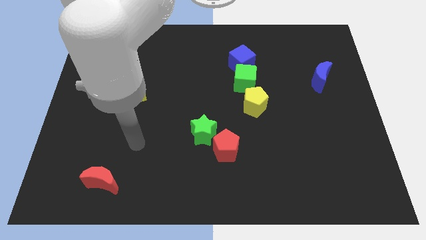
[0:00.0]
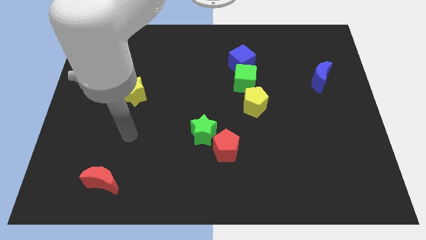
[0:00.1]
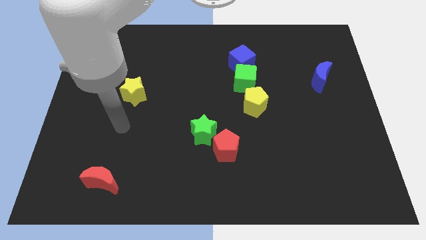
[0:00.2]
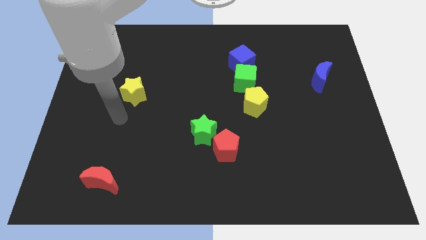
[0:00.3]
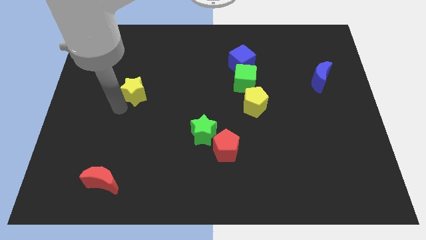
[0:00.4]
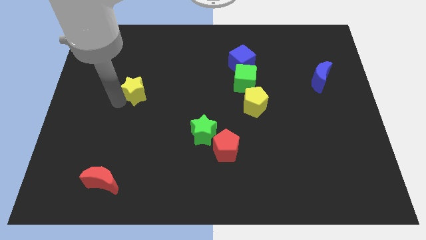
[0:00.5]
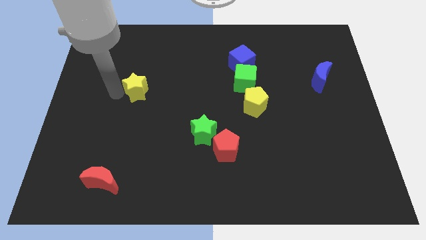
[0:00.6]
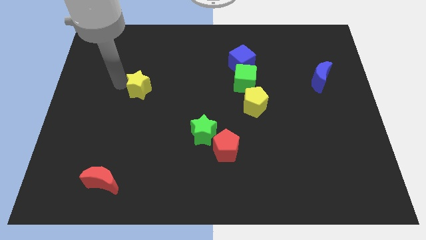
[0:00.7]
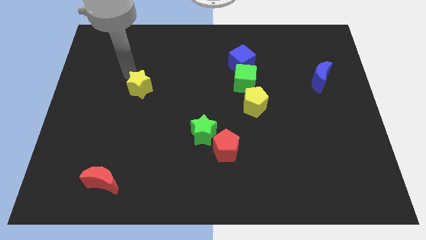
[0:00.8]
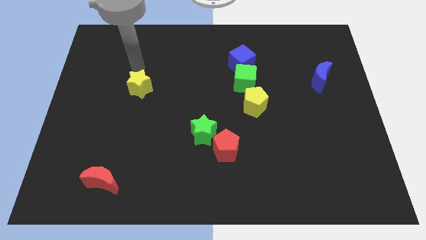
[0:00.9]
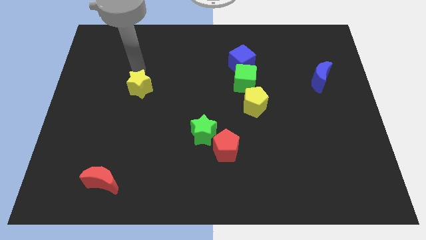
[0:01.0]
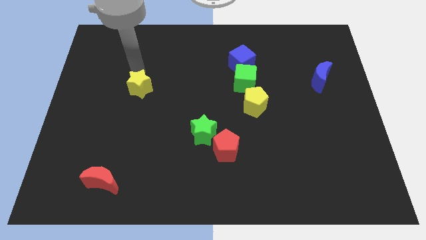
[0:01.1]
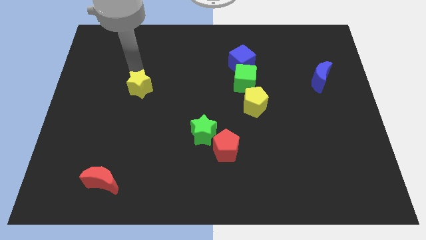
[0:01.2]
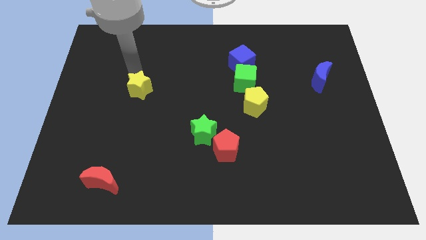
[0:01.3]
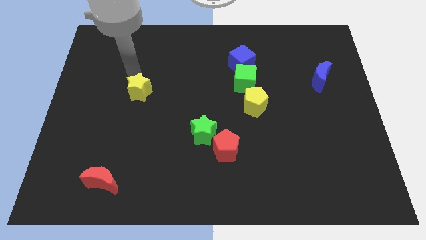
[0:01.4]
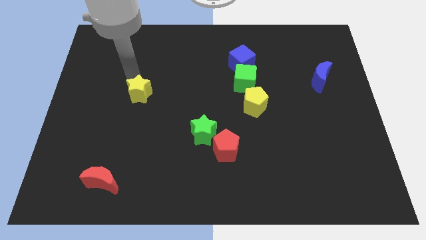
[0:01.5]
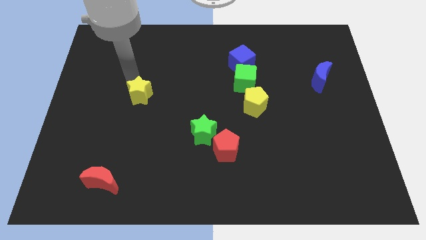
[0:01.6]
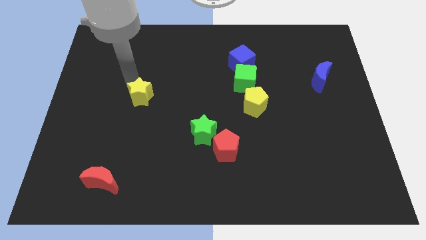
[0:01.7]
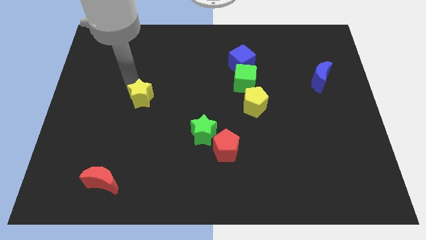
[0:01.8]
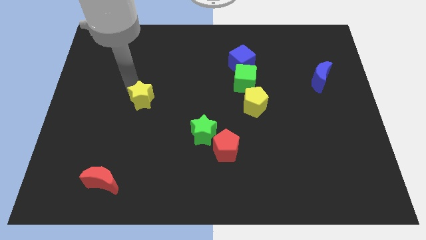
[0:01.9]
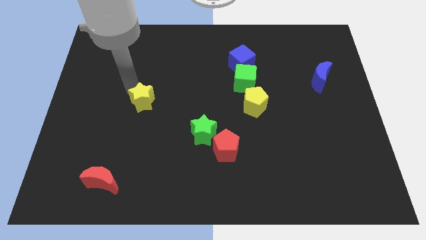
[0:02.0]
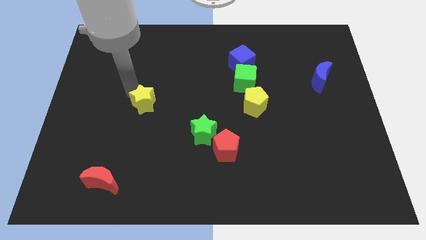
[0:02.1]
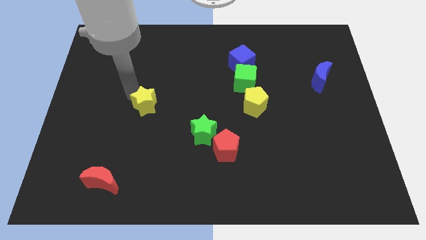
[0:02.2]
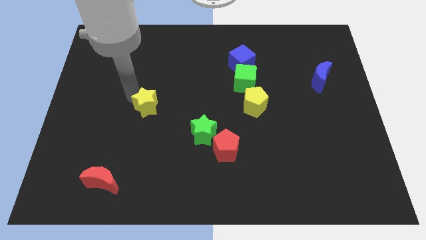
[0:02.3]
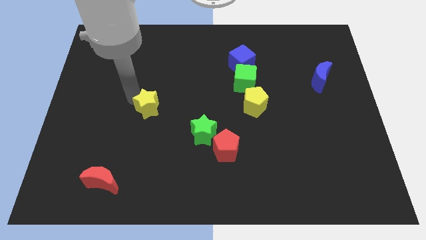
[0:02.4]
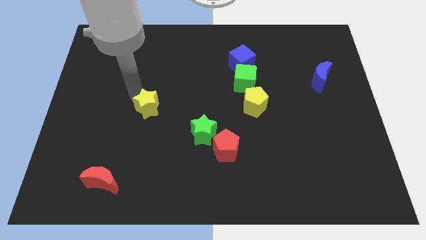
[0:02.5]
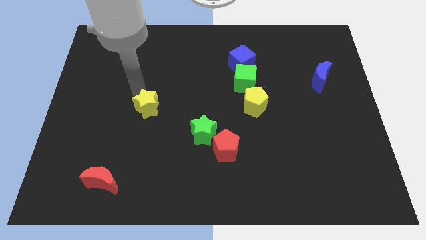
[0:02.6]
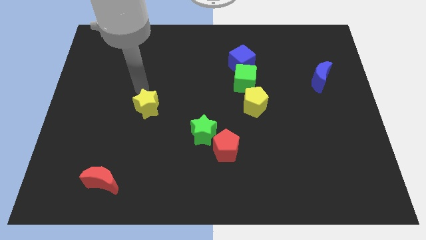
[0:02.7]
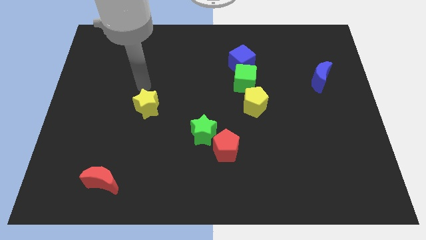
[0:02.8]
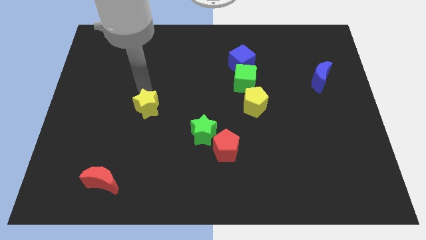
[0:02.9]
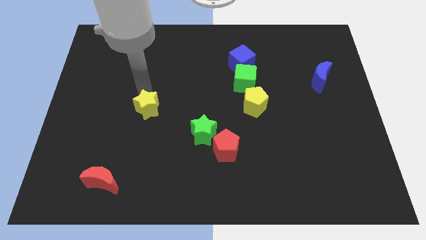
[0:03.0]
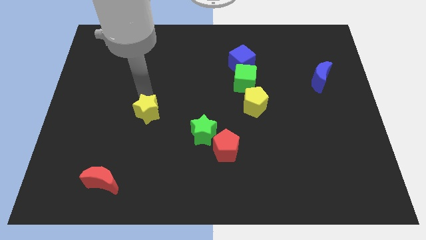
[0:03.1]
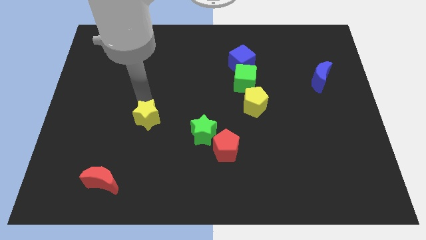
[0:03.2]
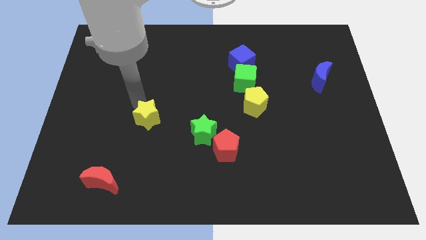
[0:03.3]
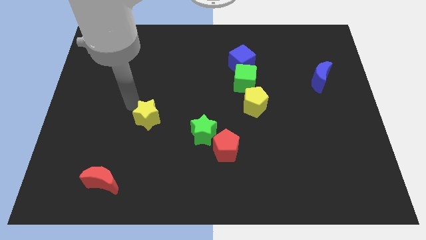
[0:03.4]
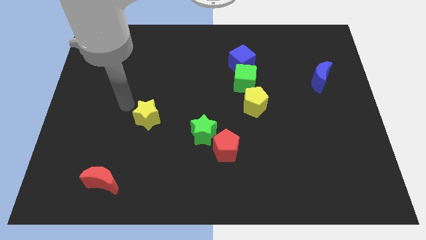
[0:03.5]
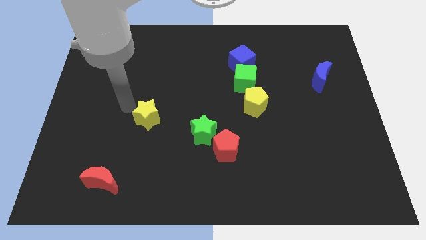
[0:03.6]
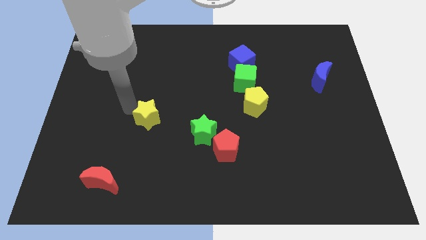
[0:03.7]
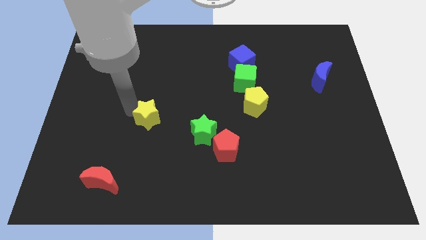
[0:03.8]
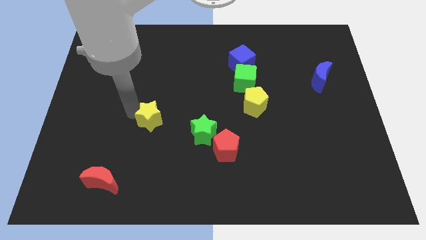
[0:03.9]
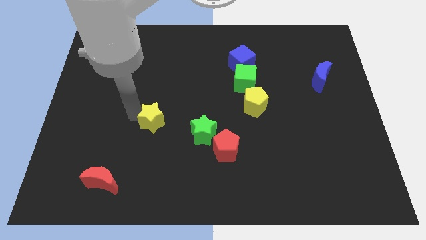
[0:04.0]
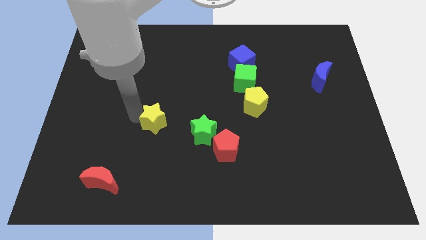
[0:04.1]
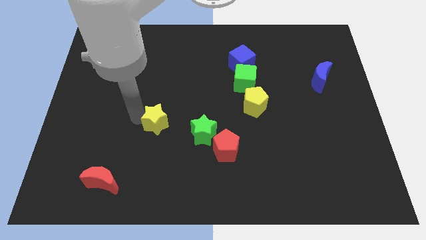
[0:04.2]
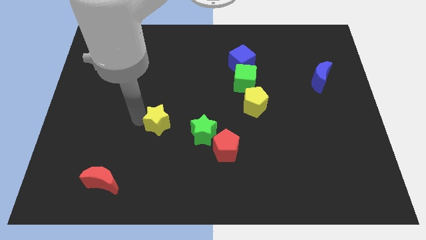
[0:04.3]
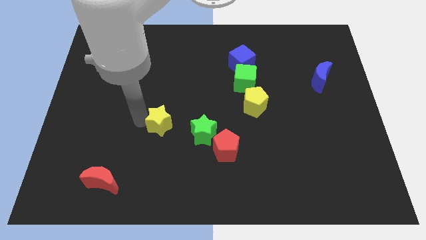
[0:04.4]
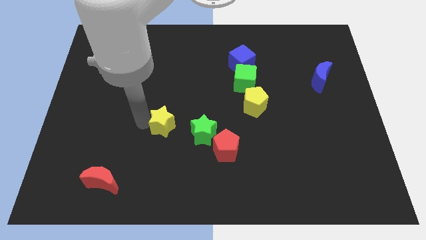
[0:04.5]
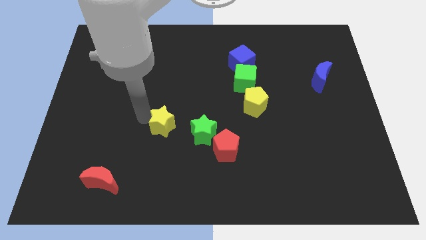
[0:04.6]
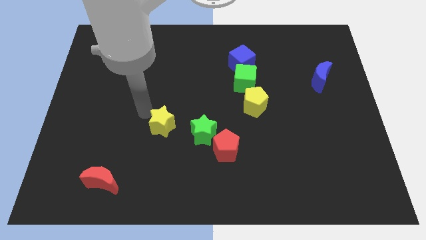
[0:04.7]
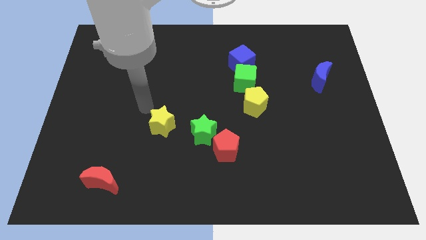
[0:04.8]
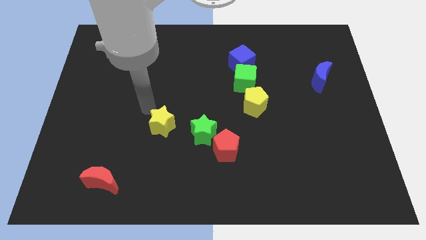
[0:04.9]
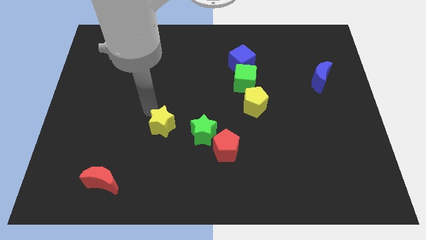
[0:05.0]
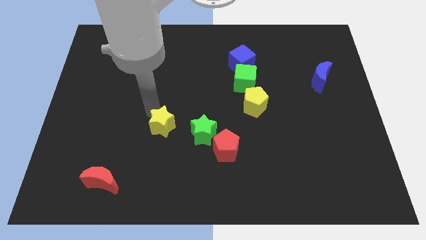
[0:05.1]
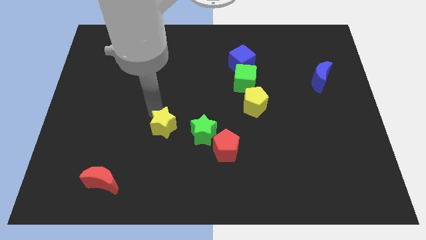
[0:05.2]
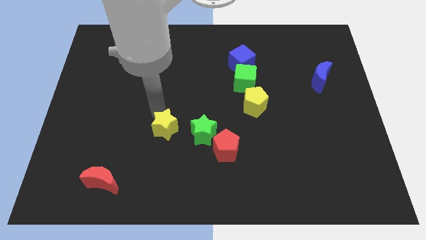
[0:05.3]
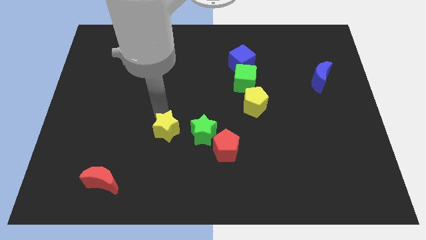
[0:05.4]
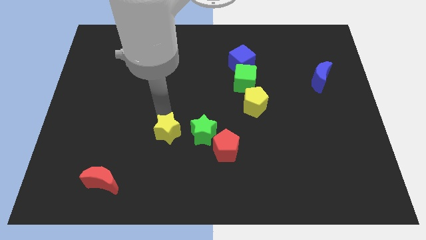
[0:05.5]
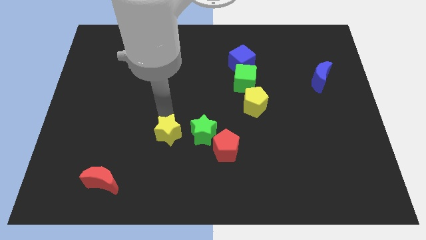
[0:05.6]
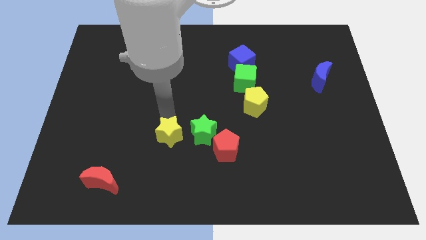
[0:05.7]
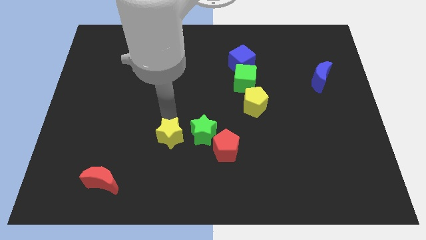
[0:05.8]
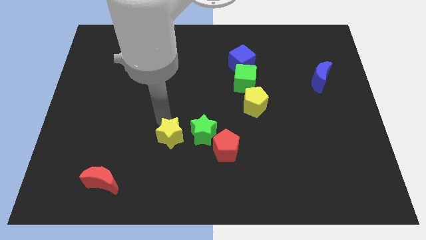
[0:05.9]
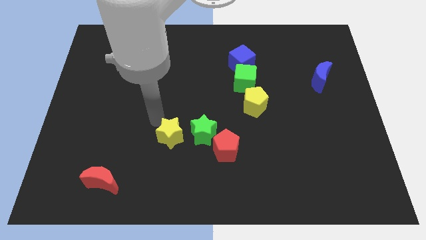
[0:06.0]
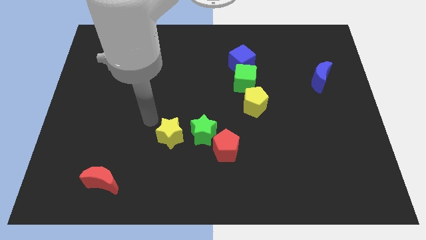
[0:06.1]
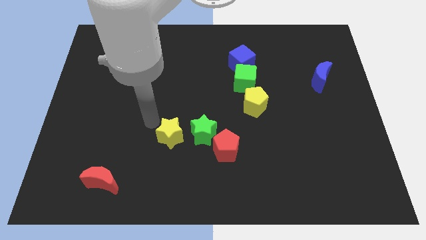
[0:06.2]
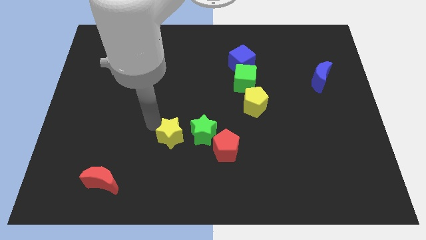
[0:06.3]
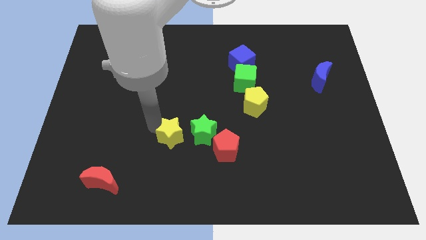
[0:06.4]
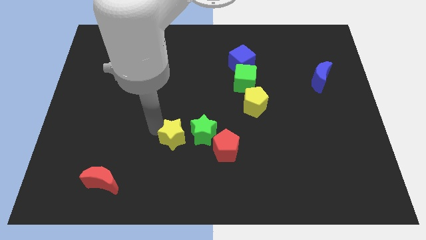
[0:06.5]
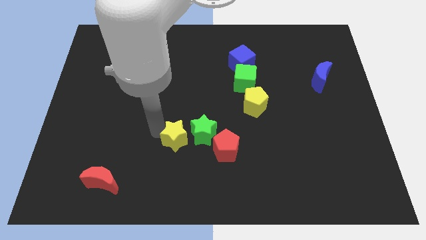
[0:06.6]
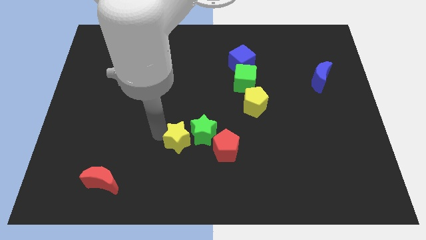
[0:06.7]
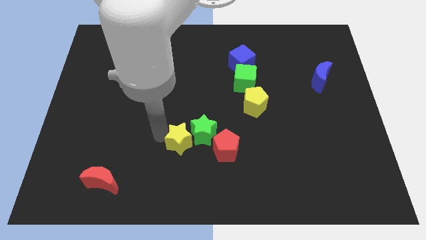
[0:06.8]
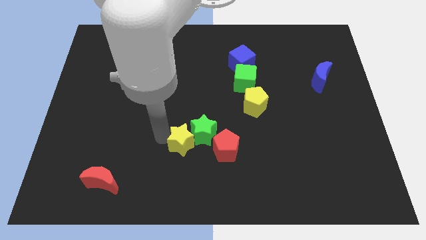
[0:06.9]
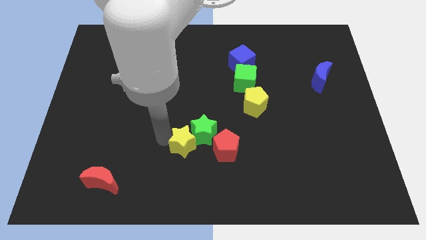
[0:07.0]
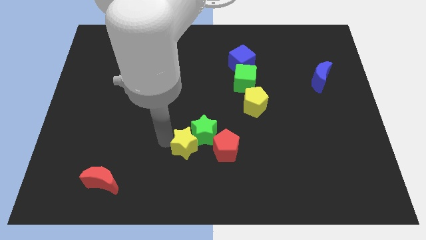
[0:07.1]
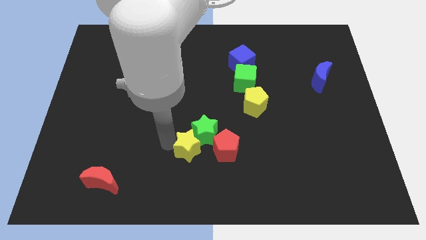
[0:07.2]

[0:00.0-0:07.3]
move the yellow star diagonally down and to the right

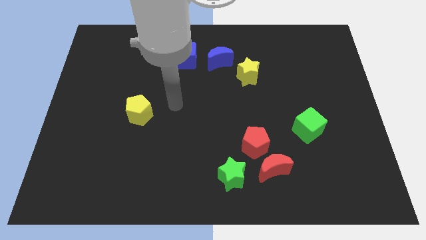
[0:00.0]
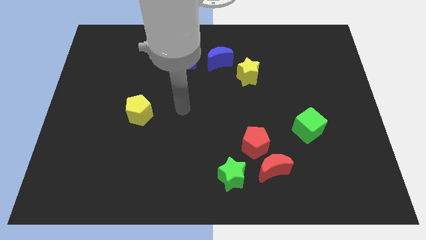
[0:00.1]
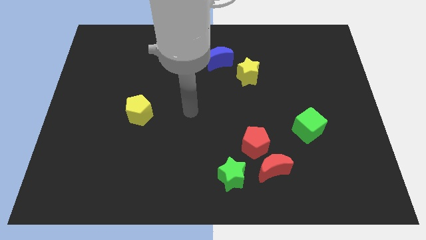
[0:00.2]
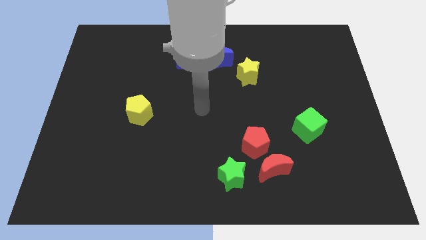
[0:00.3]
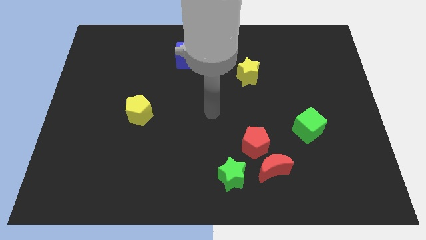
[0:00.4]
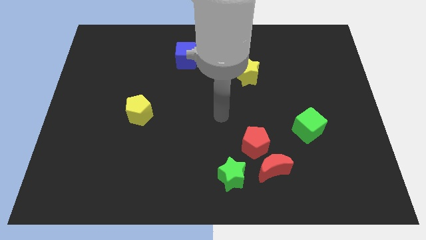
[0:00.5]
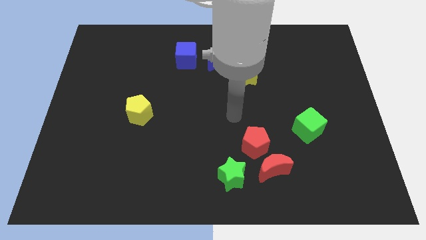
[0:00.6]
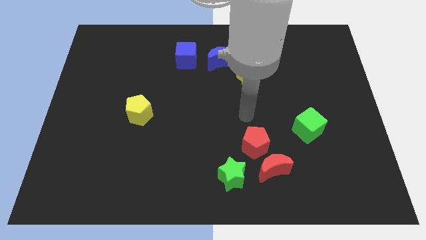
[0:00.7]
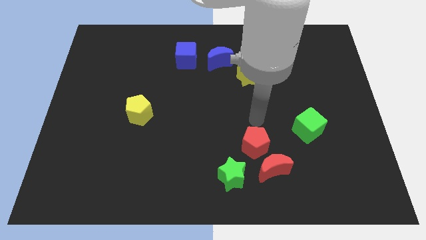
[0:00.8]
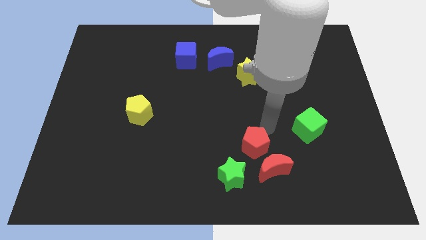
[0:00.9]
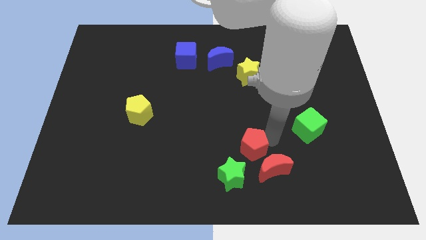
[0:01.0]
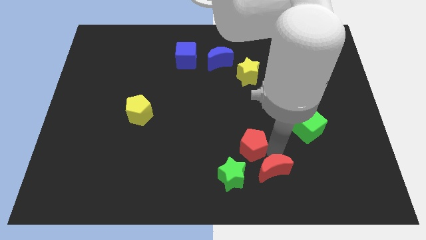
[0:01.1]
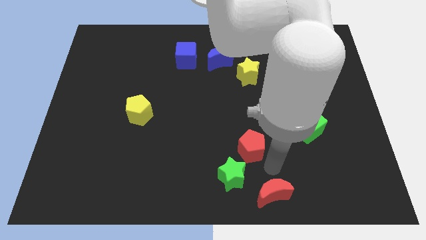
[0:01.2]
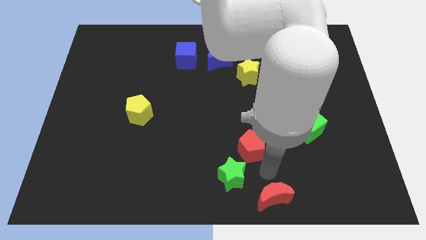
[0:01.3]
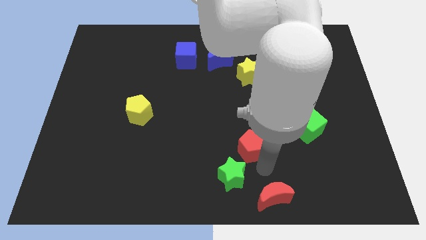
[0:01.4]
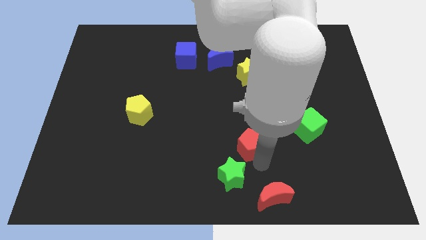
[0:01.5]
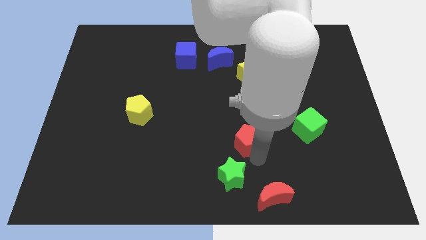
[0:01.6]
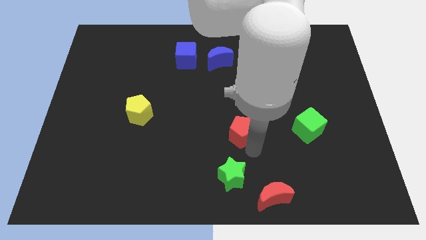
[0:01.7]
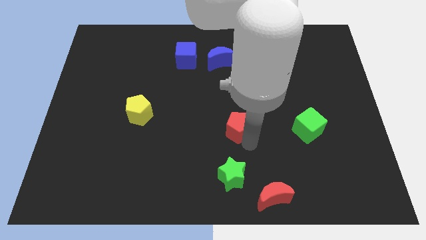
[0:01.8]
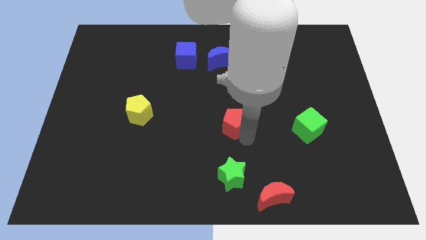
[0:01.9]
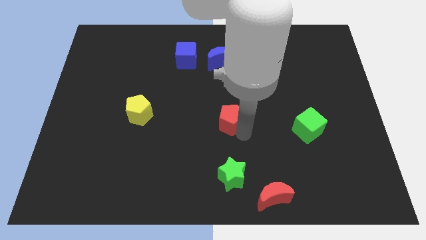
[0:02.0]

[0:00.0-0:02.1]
slide the red pentagon a bit up and left
